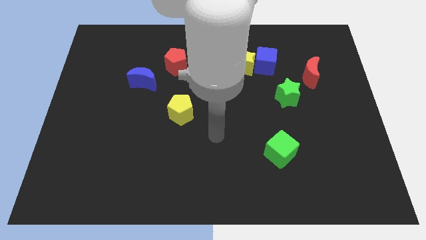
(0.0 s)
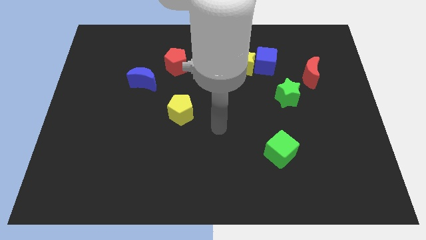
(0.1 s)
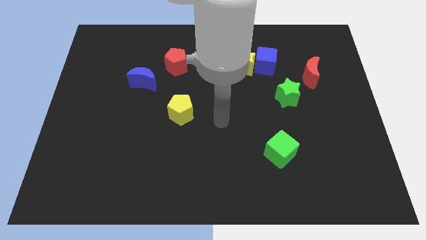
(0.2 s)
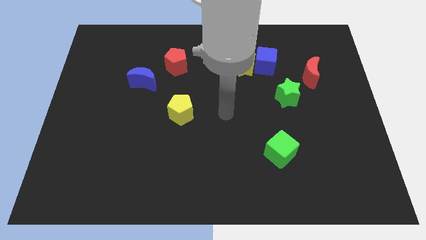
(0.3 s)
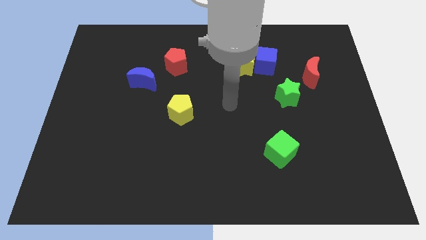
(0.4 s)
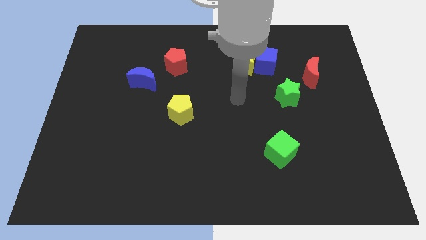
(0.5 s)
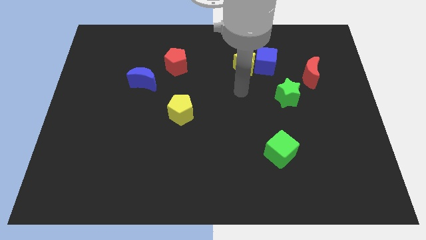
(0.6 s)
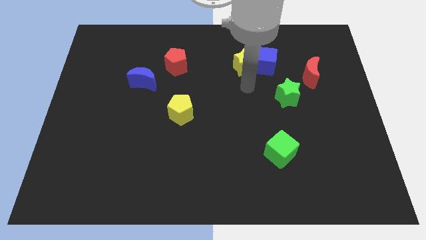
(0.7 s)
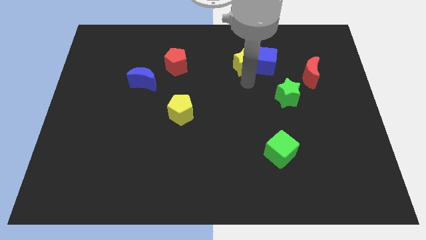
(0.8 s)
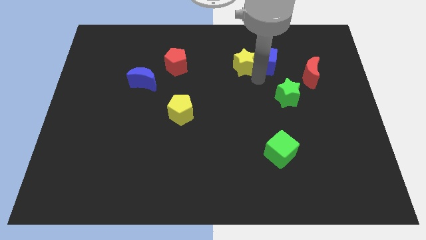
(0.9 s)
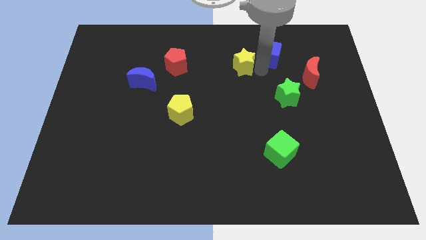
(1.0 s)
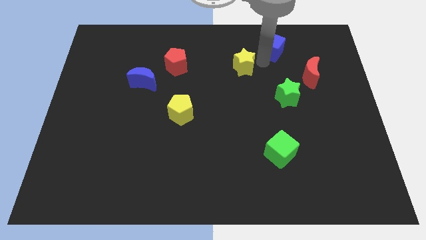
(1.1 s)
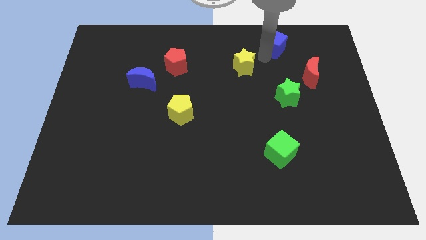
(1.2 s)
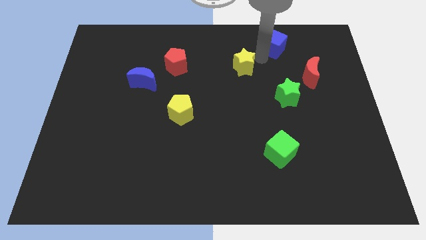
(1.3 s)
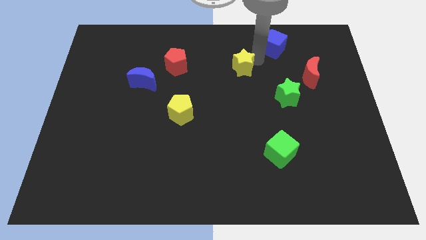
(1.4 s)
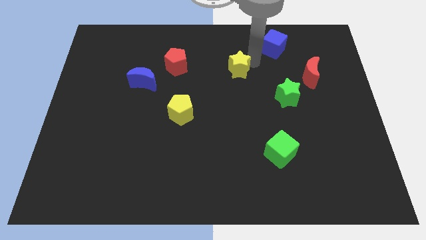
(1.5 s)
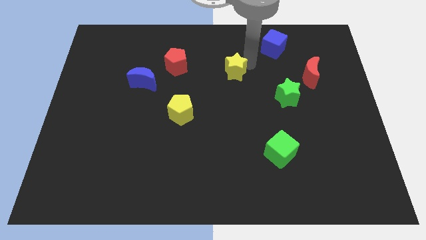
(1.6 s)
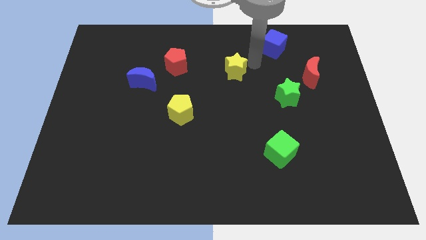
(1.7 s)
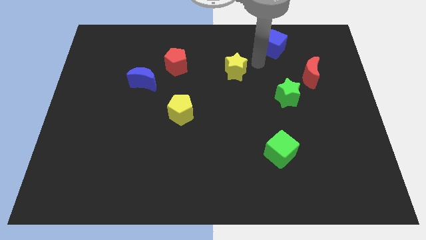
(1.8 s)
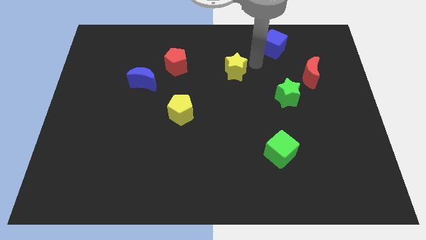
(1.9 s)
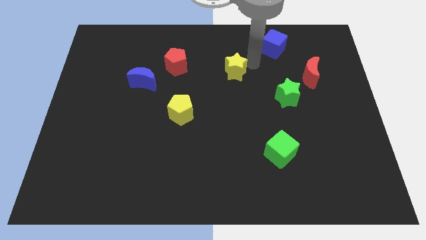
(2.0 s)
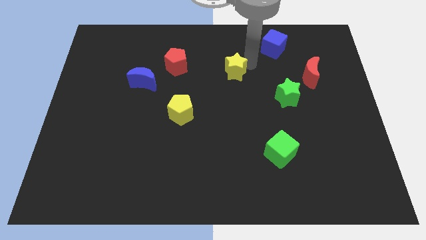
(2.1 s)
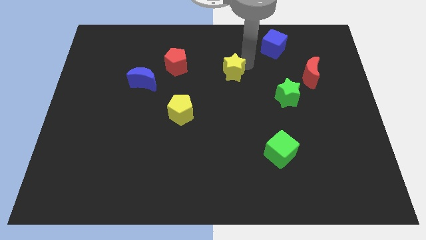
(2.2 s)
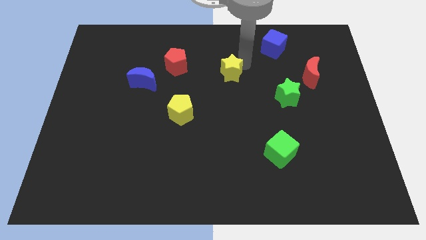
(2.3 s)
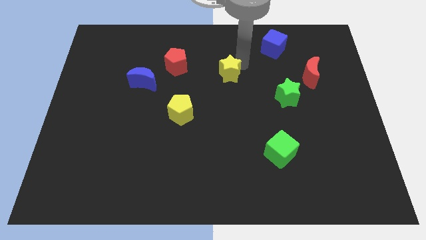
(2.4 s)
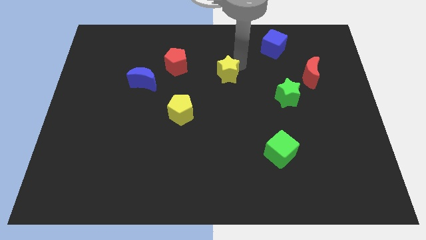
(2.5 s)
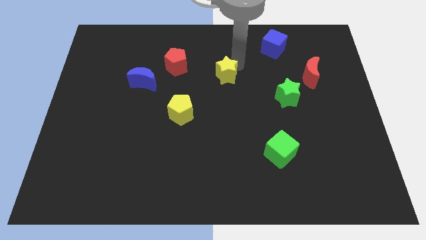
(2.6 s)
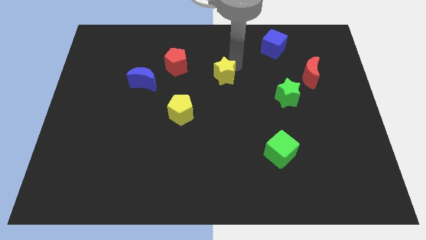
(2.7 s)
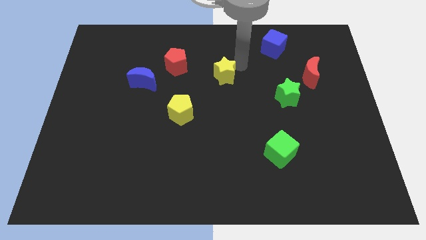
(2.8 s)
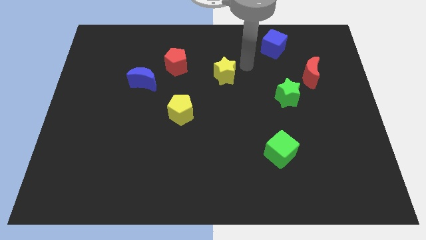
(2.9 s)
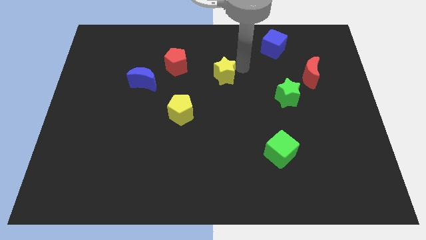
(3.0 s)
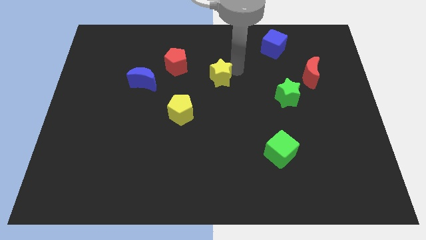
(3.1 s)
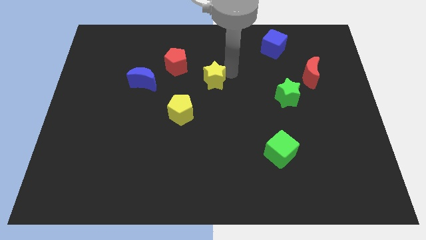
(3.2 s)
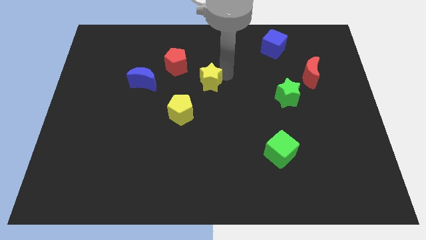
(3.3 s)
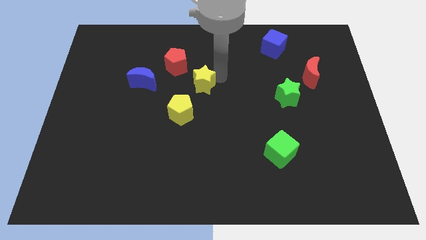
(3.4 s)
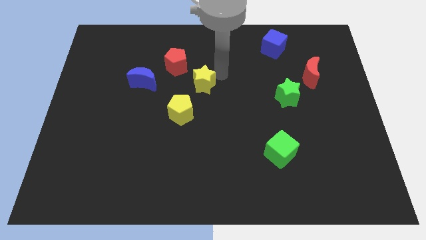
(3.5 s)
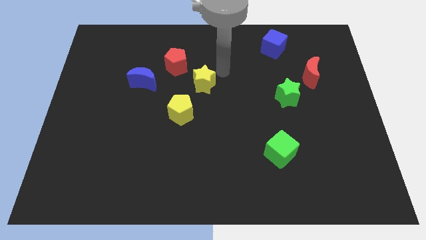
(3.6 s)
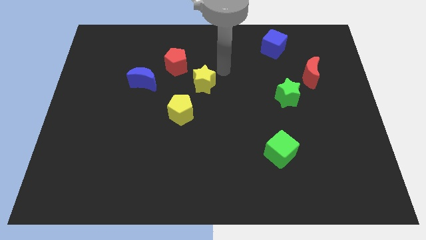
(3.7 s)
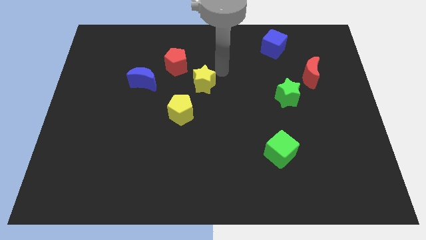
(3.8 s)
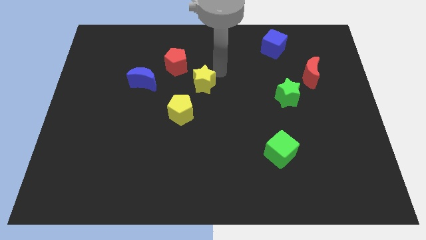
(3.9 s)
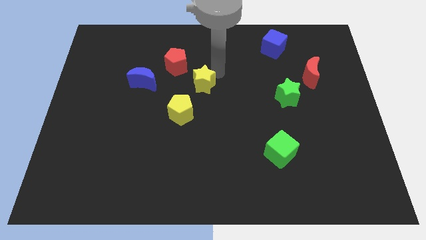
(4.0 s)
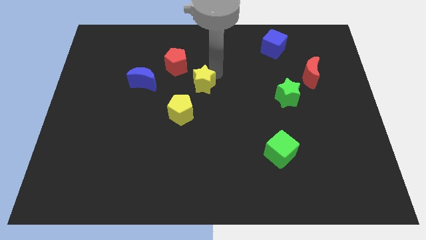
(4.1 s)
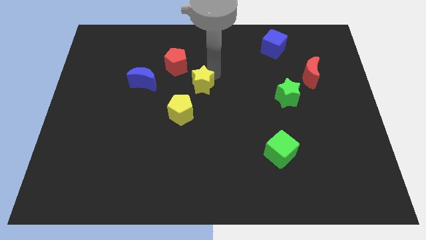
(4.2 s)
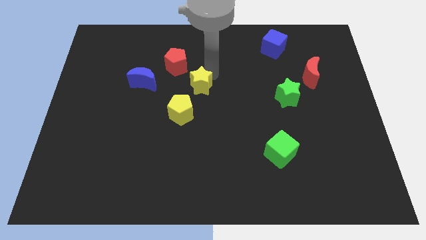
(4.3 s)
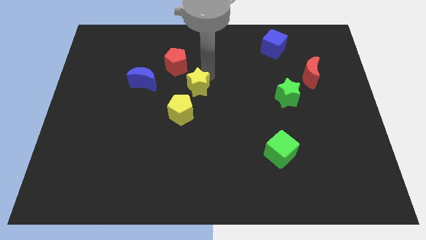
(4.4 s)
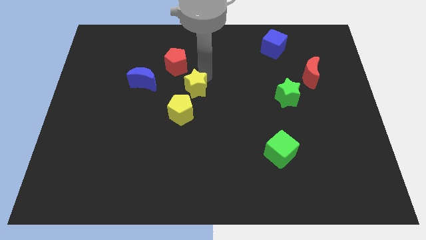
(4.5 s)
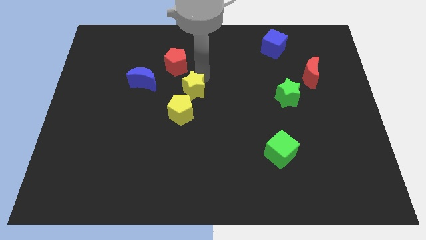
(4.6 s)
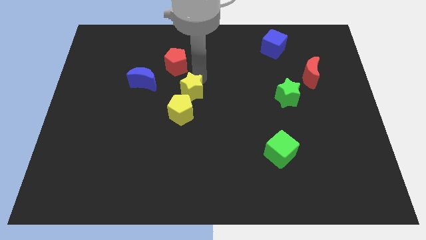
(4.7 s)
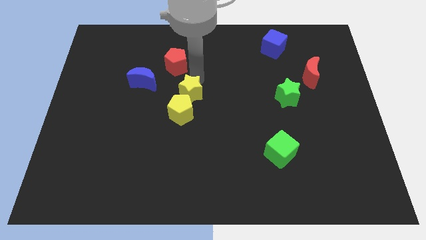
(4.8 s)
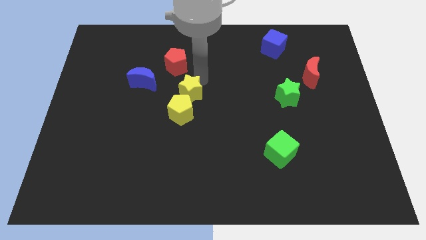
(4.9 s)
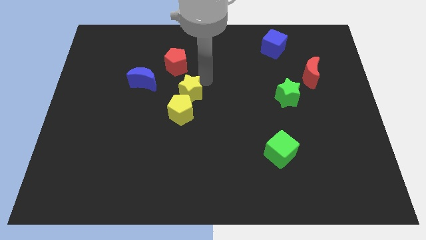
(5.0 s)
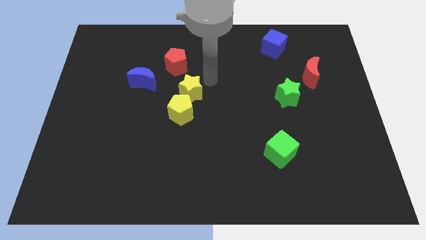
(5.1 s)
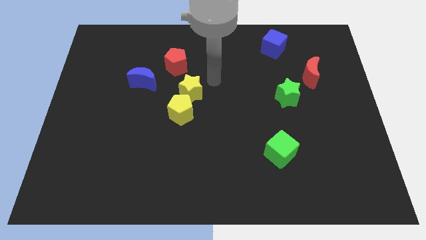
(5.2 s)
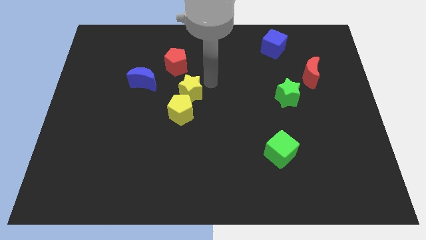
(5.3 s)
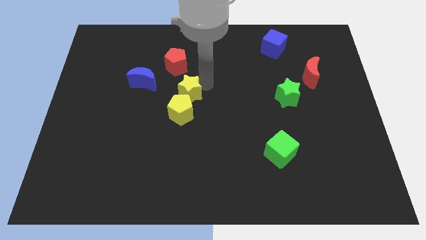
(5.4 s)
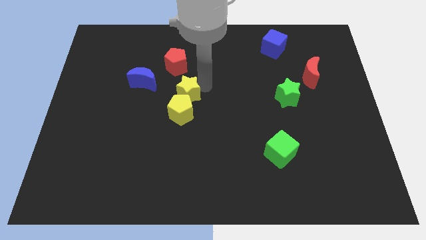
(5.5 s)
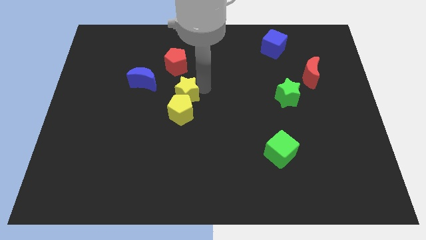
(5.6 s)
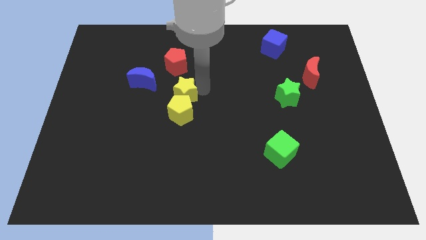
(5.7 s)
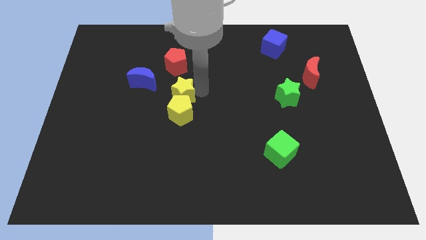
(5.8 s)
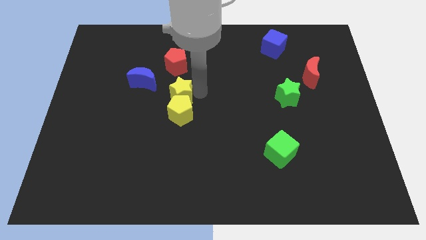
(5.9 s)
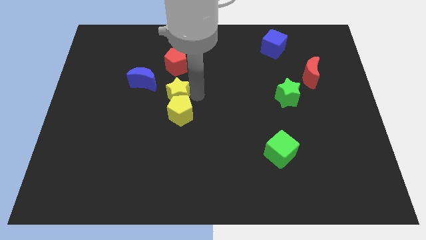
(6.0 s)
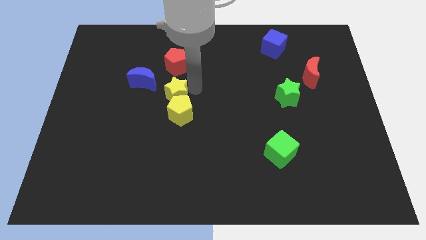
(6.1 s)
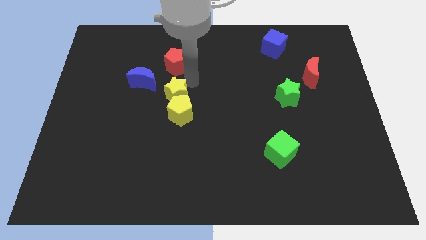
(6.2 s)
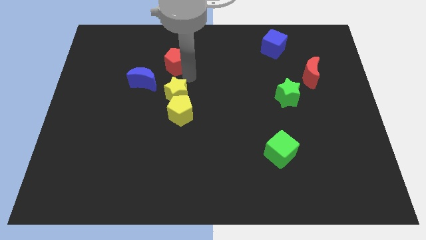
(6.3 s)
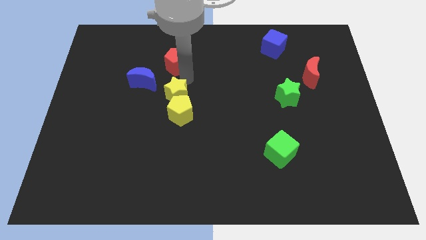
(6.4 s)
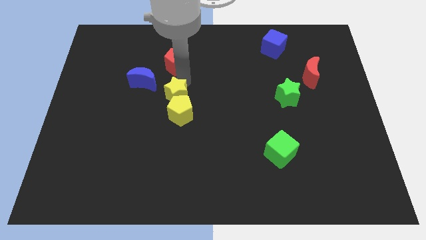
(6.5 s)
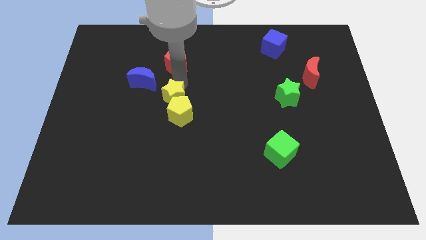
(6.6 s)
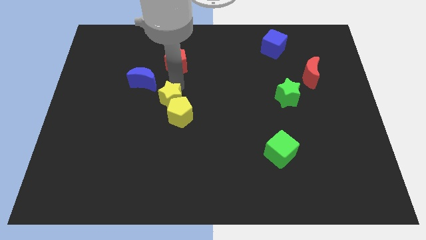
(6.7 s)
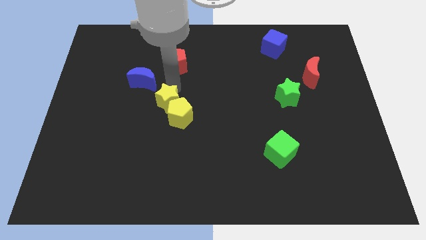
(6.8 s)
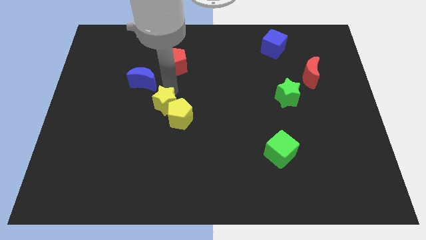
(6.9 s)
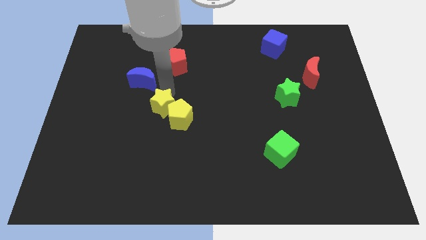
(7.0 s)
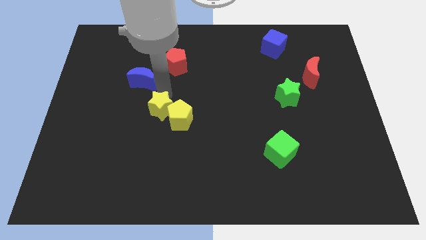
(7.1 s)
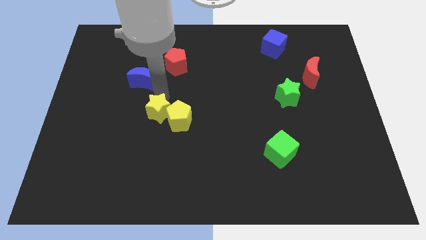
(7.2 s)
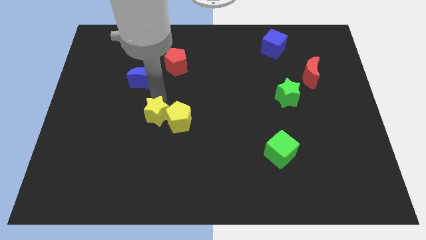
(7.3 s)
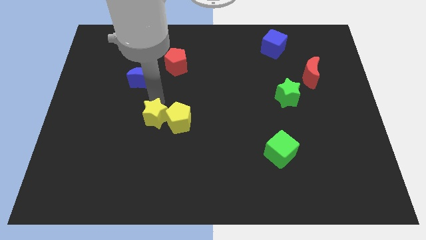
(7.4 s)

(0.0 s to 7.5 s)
push the yellow star to the bottom left of the yellow pentagon
